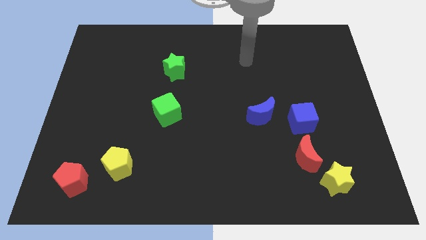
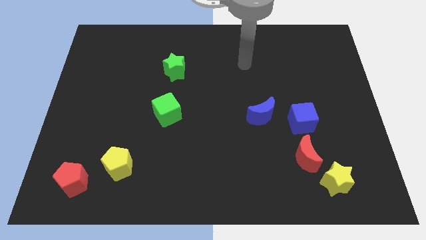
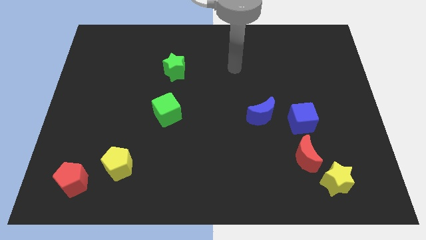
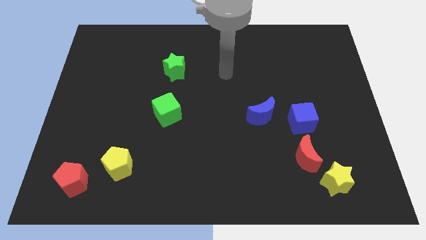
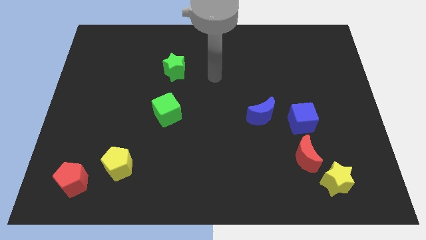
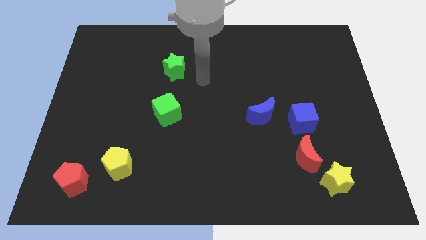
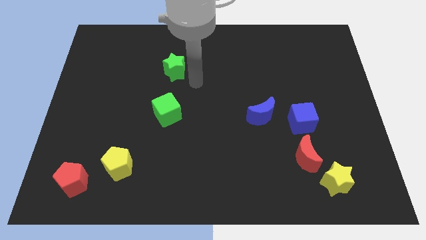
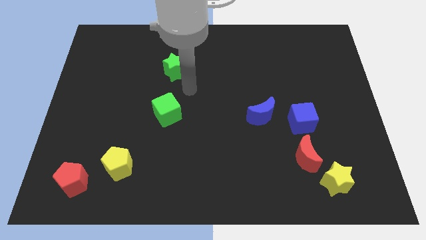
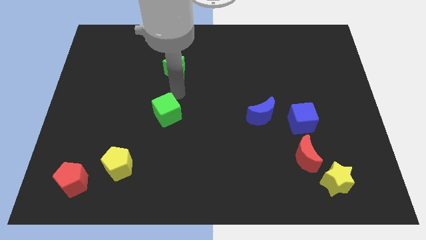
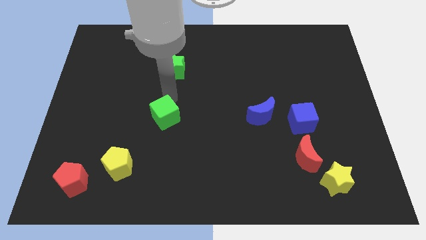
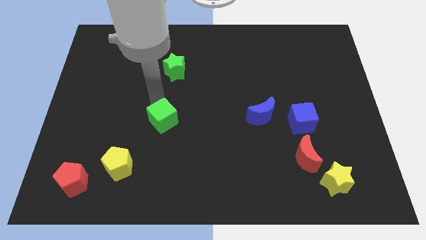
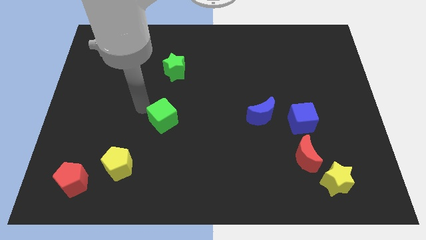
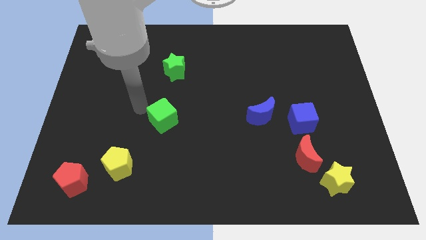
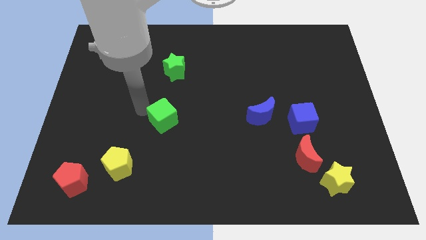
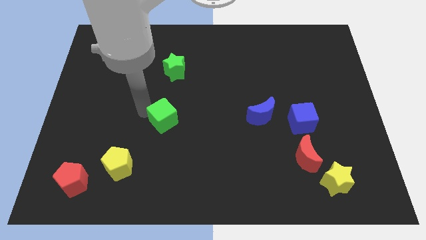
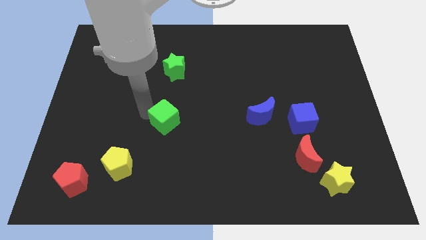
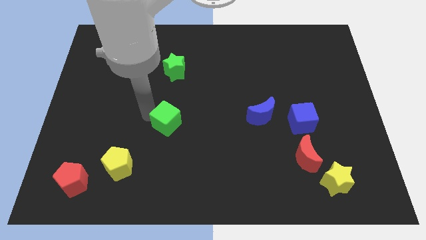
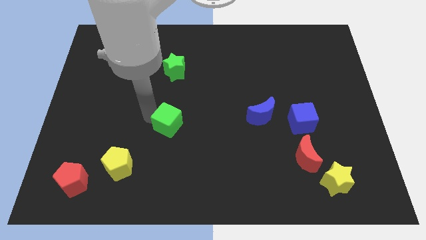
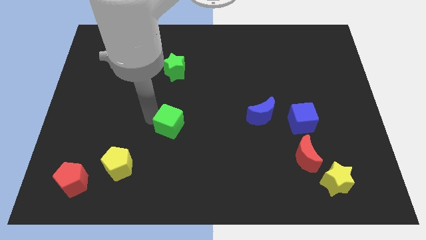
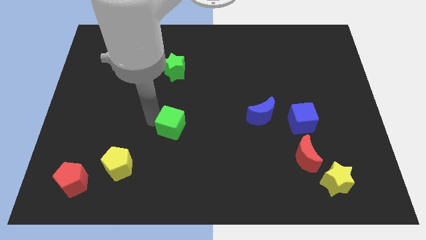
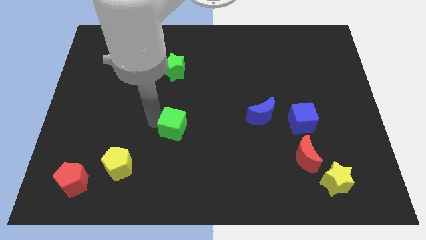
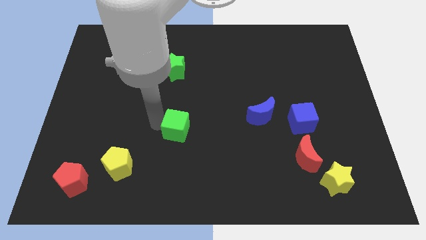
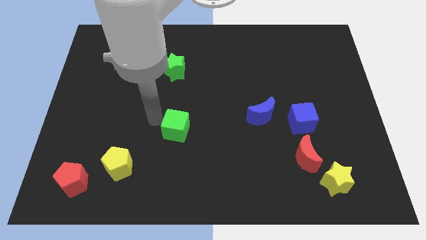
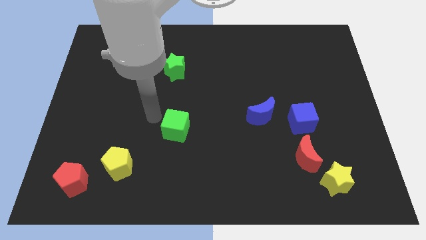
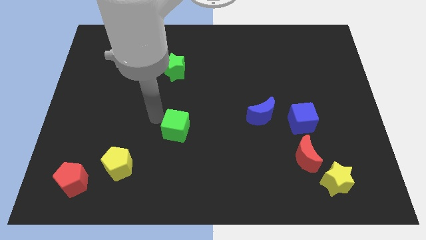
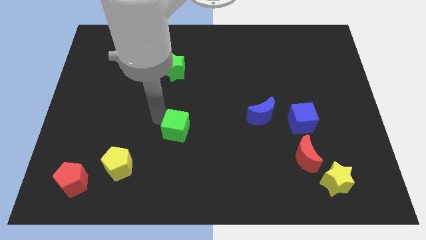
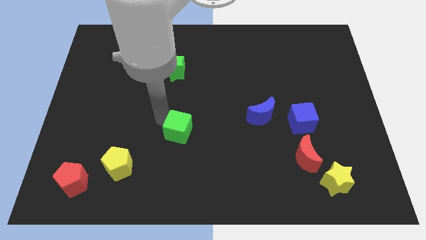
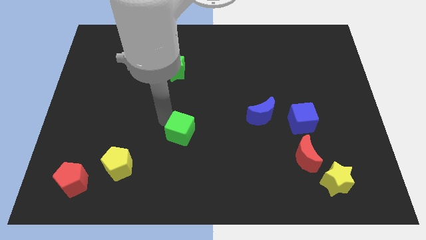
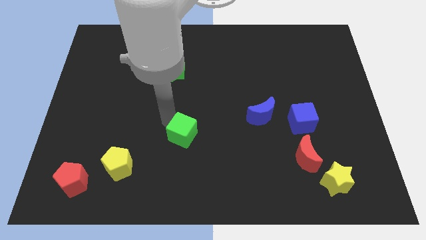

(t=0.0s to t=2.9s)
slide the green cube downwards and to the right a little bit

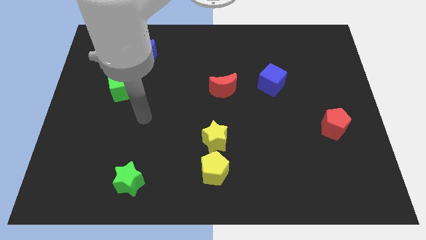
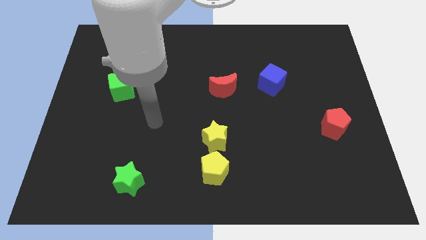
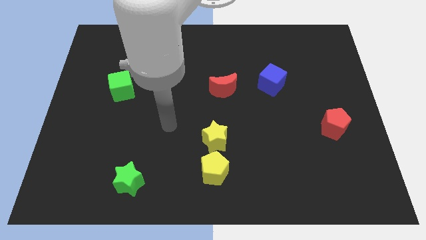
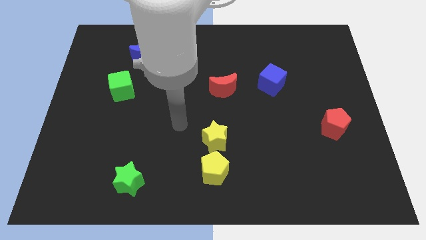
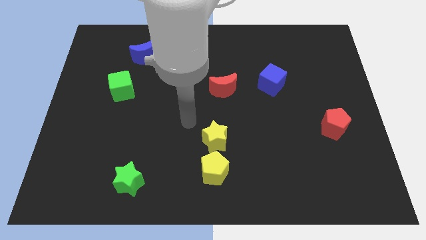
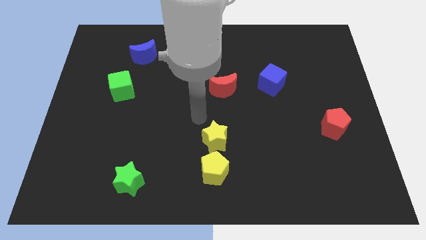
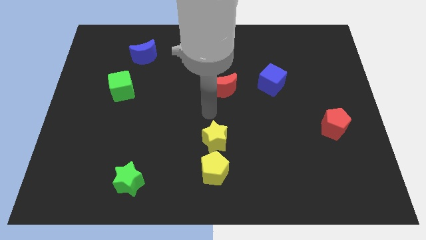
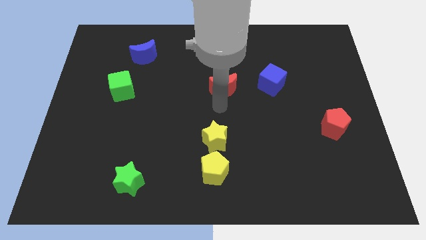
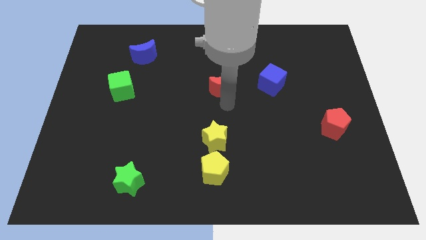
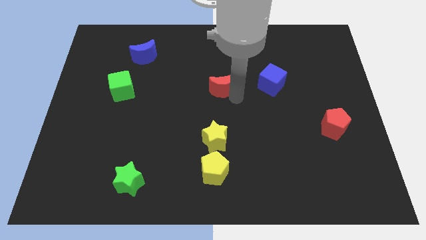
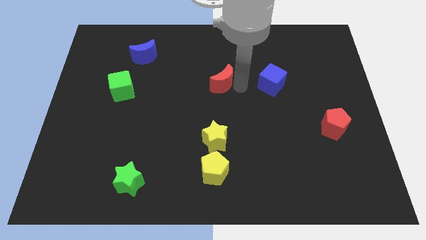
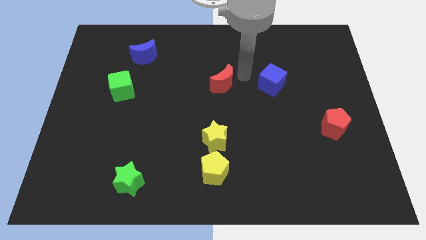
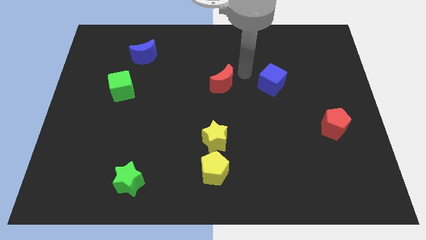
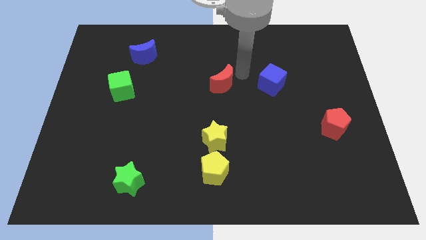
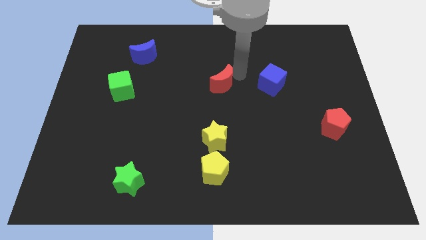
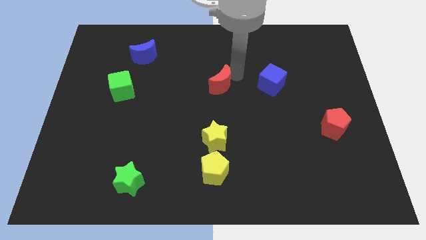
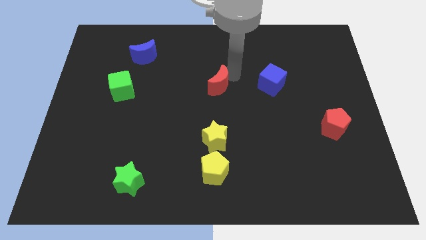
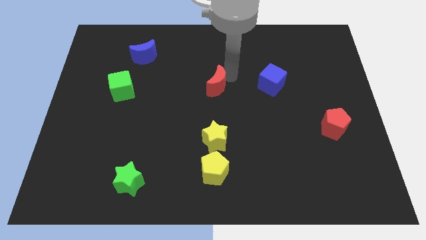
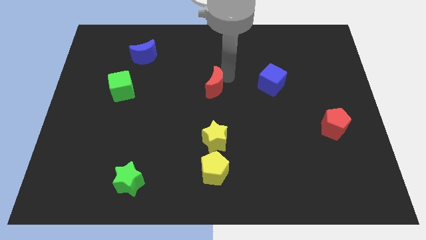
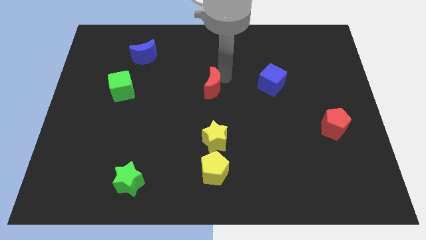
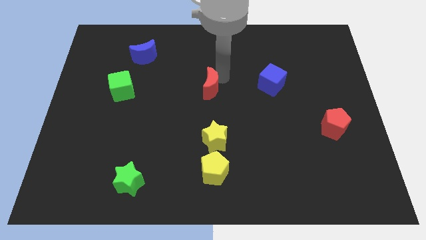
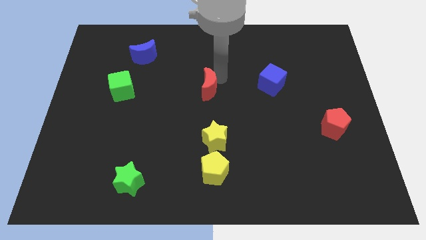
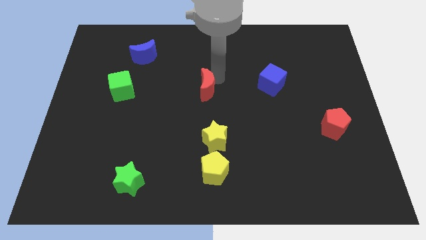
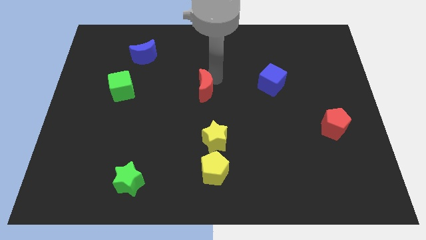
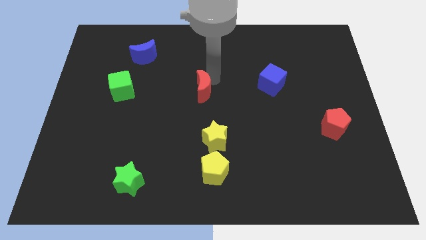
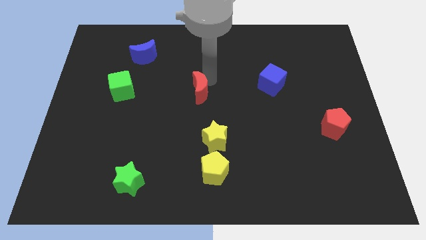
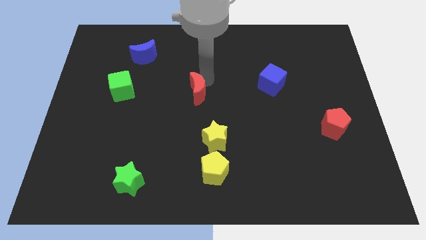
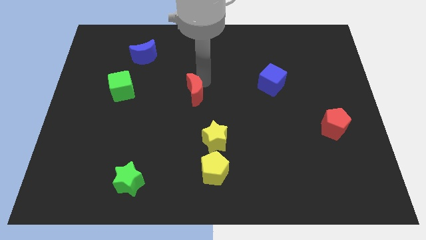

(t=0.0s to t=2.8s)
slightly slide the red moon left

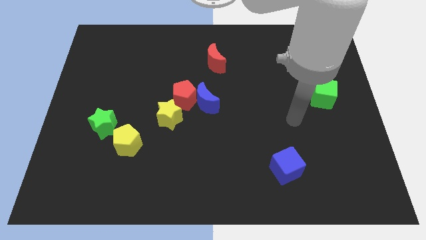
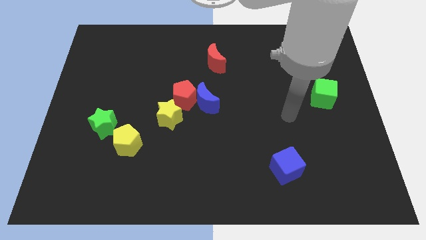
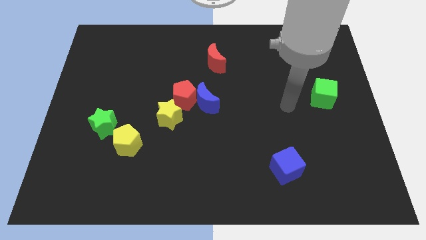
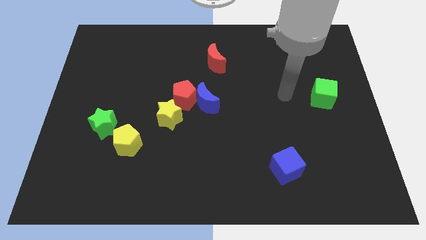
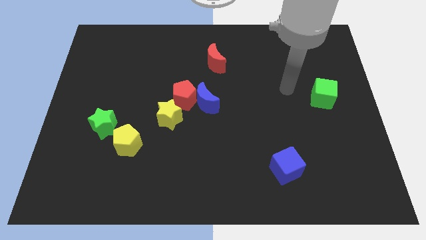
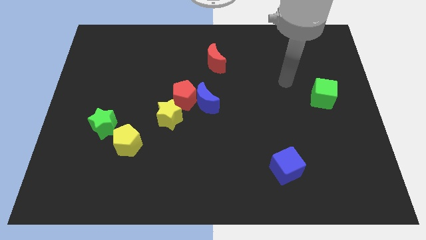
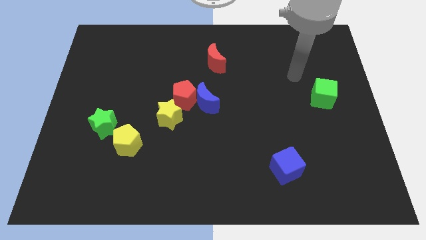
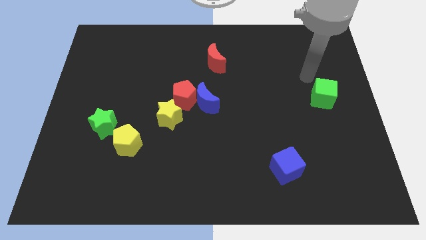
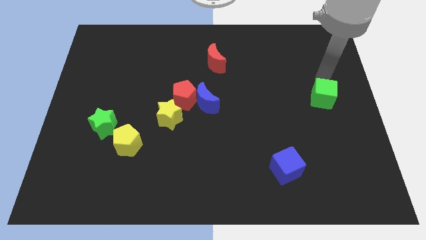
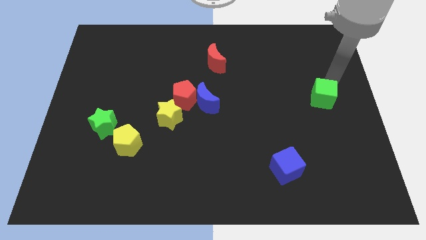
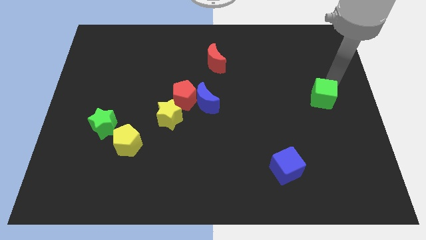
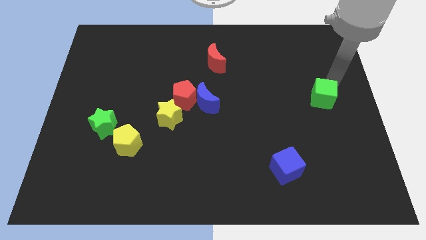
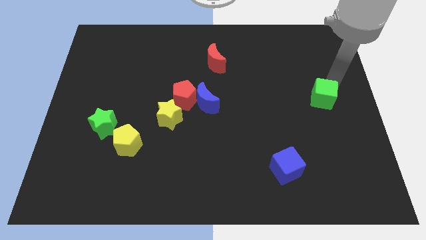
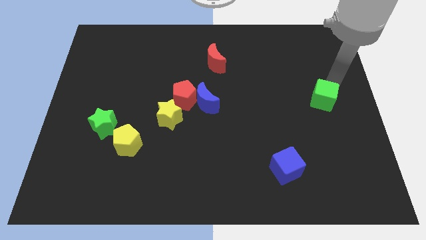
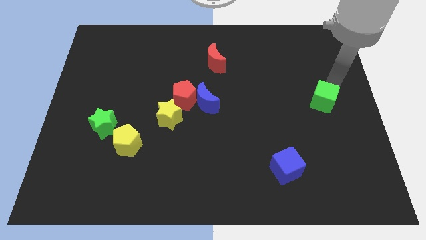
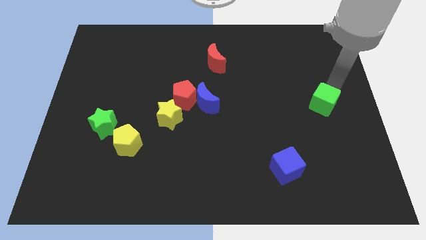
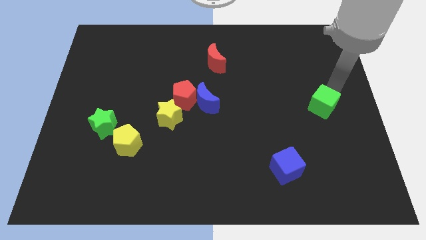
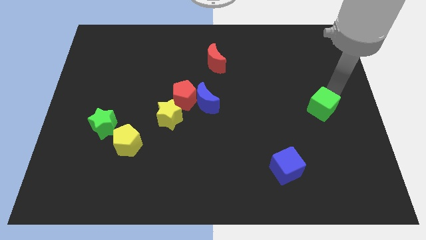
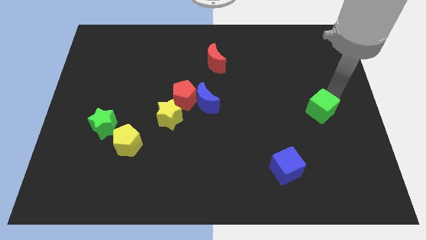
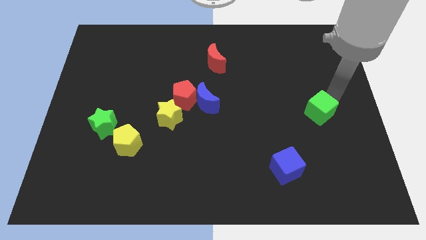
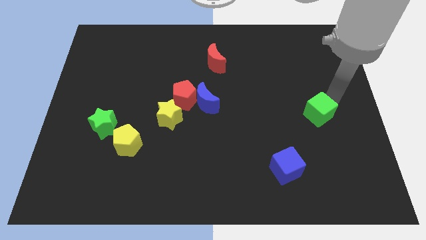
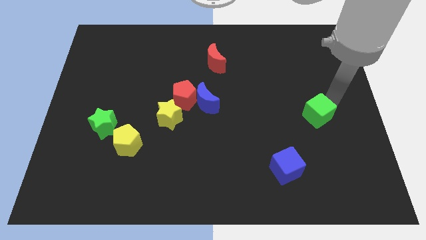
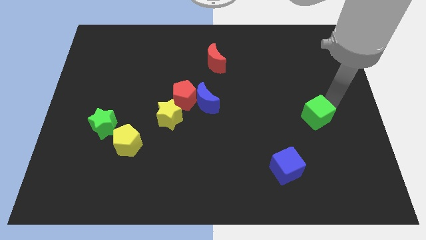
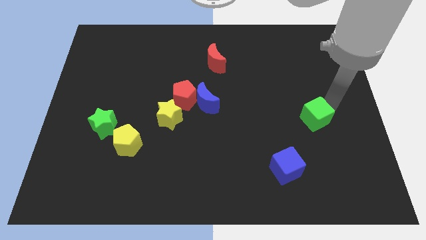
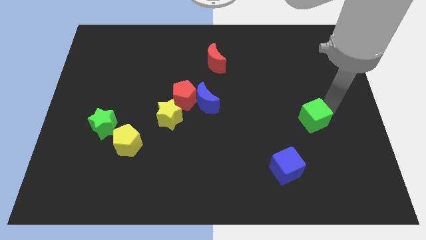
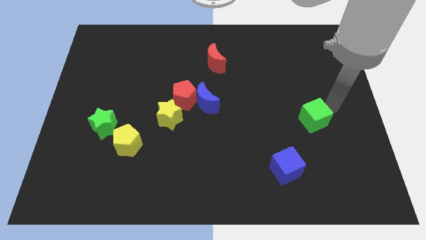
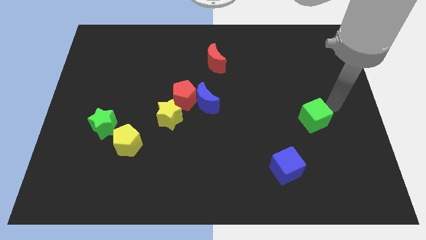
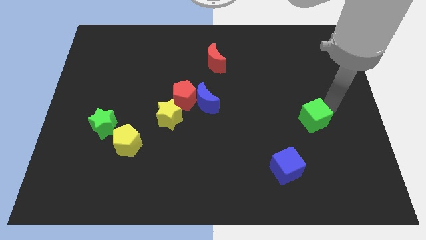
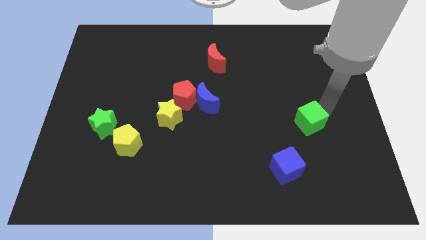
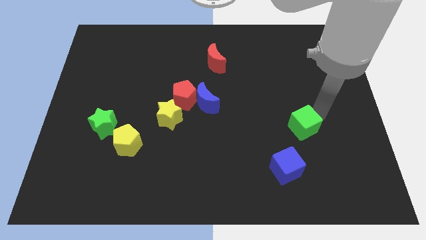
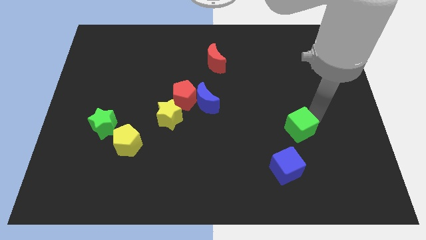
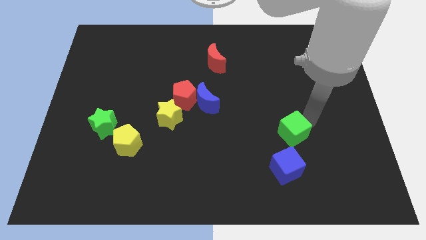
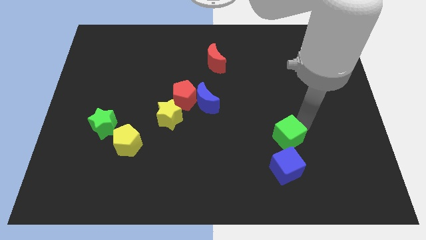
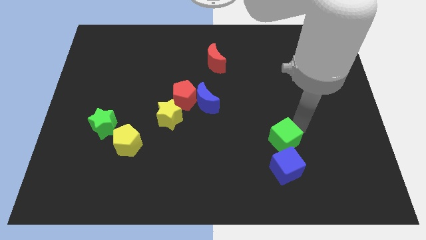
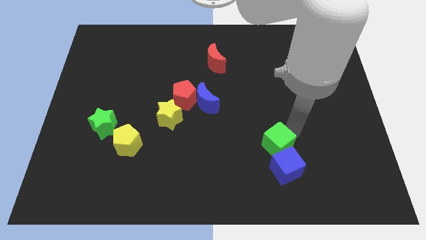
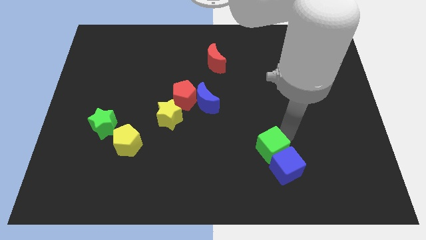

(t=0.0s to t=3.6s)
push the green cube downwards and left diagonally
